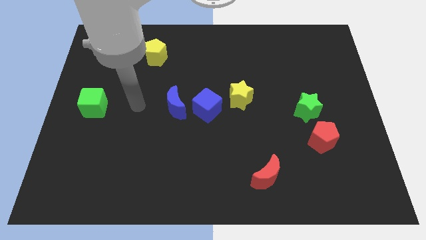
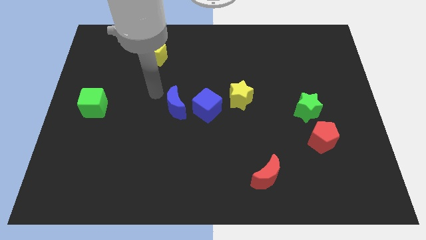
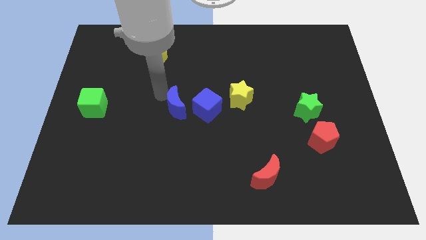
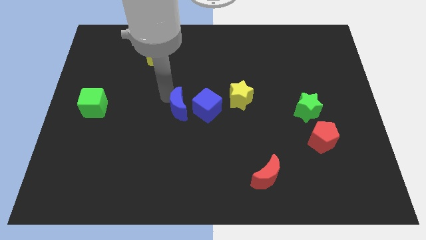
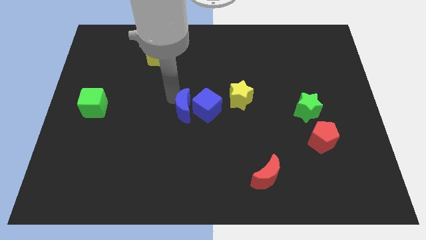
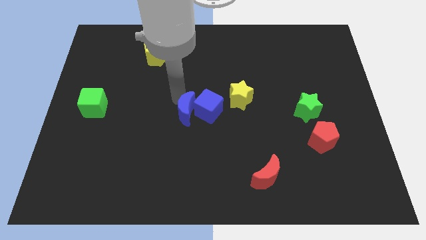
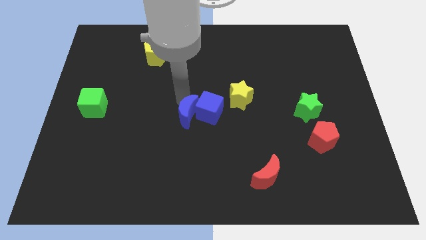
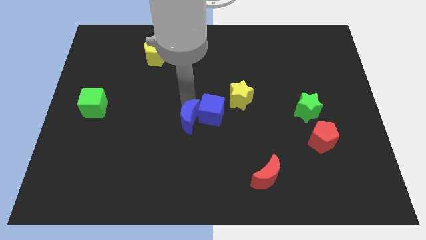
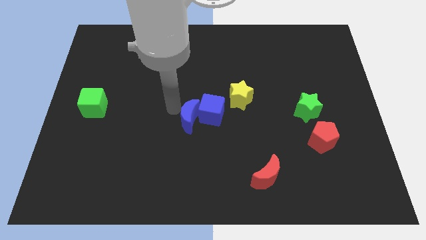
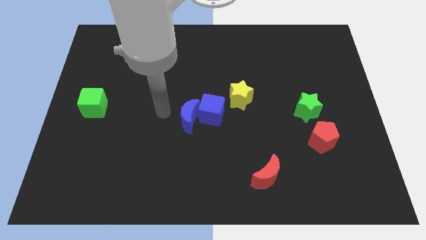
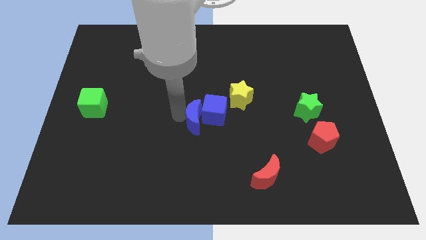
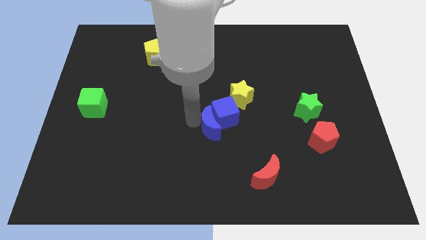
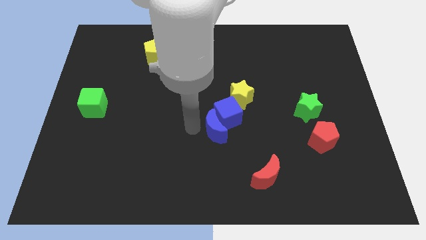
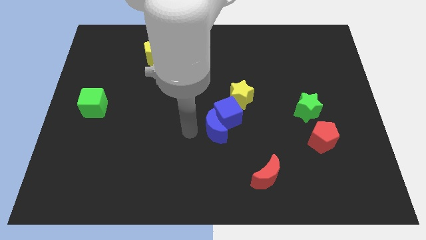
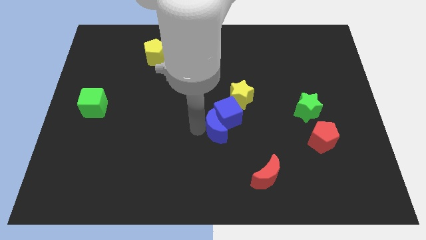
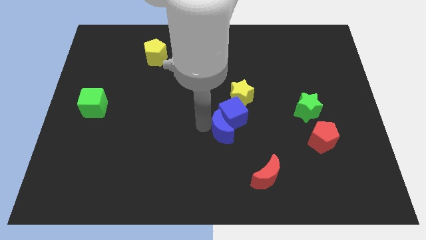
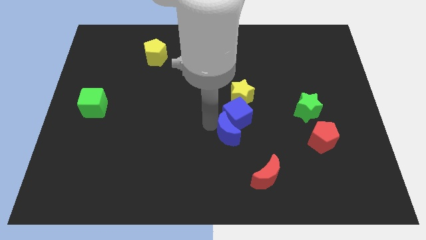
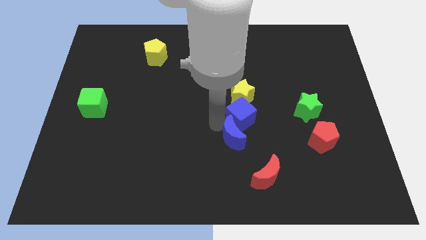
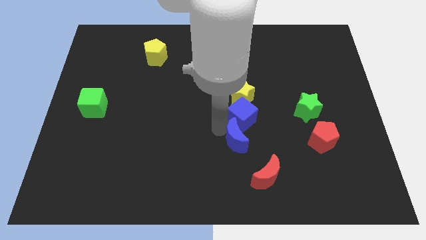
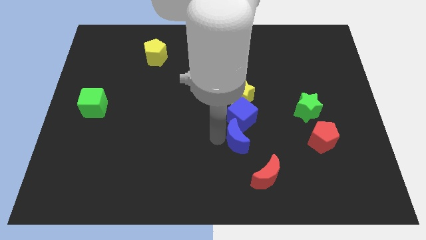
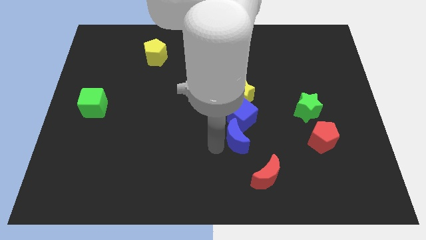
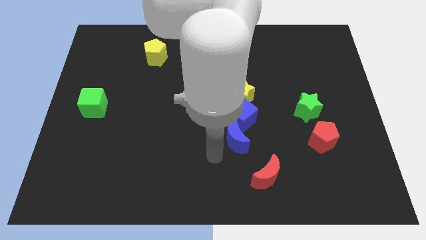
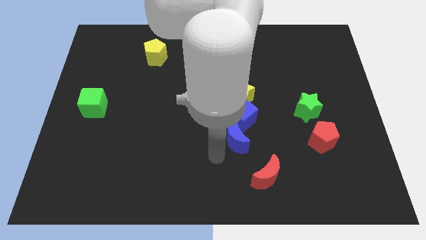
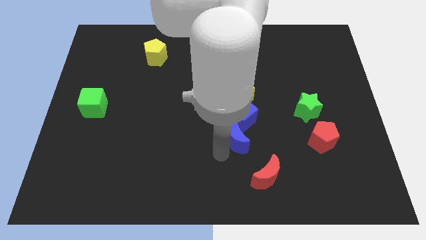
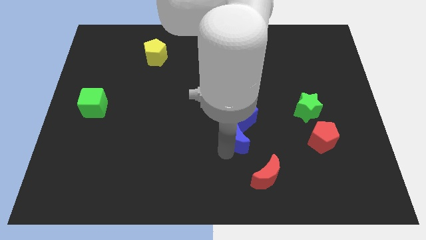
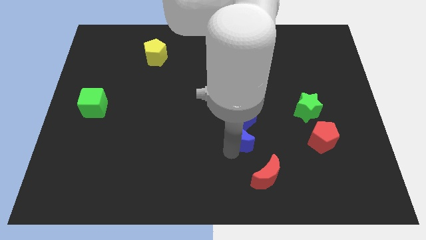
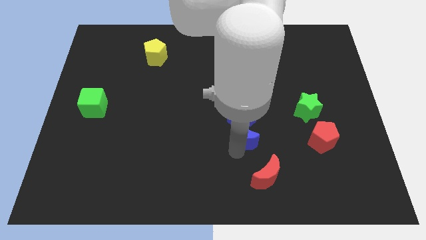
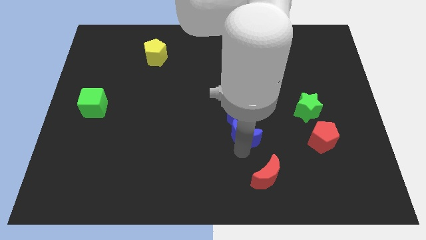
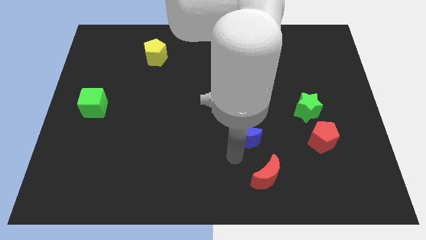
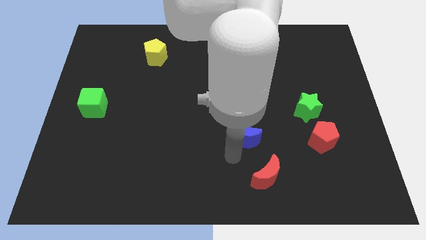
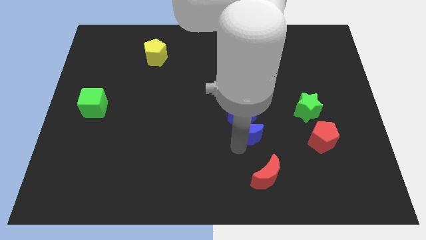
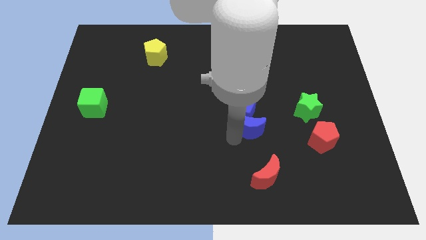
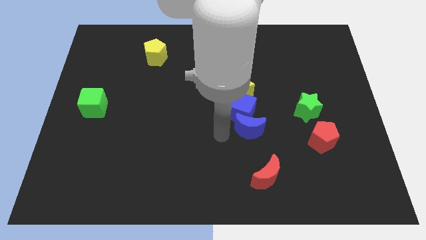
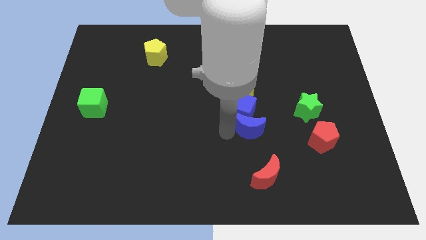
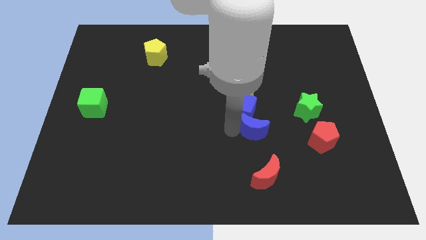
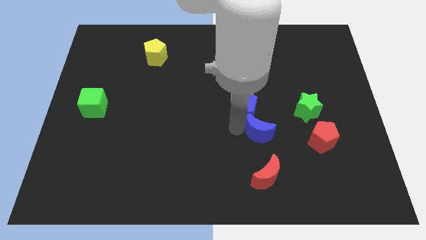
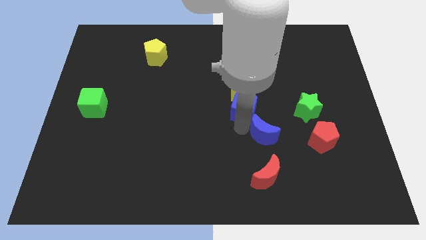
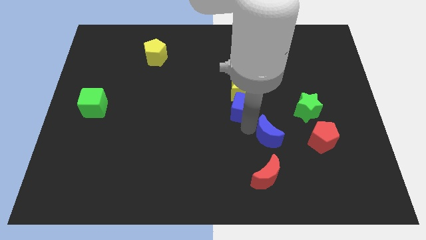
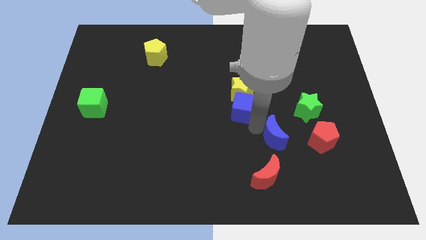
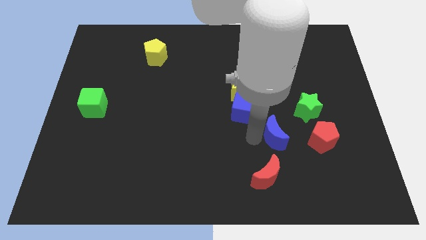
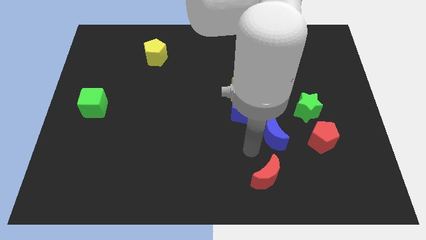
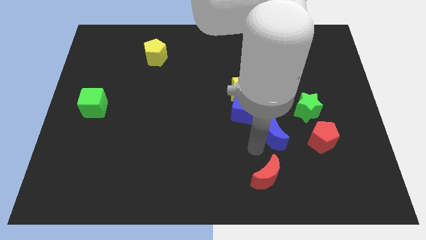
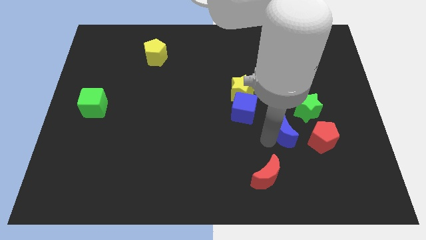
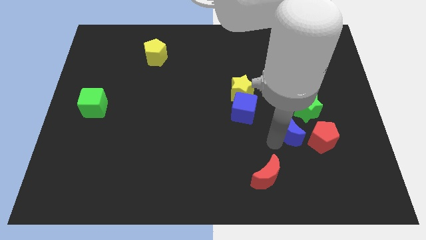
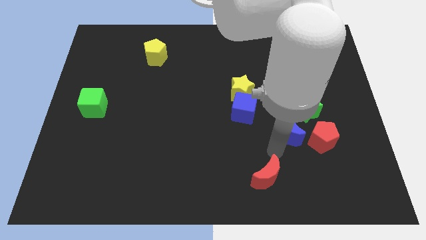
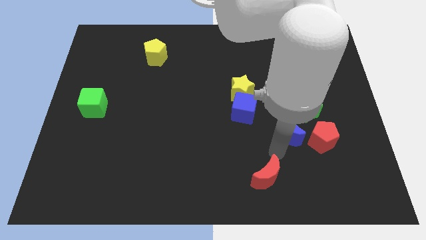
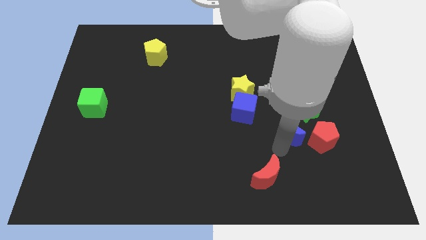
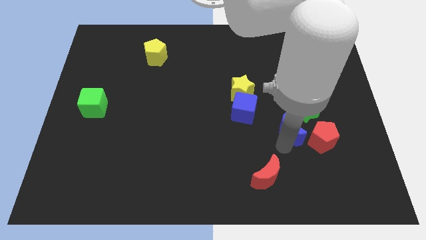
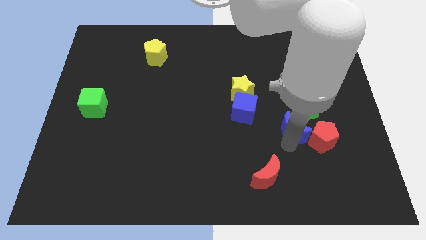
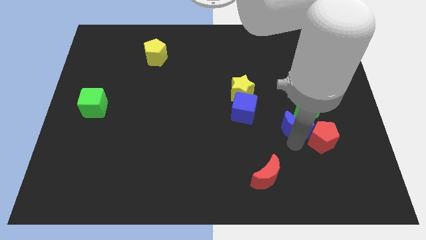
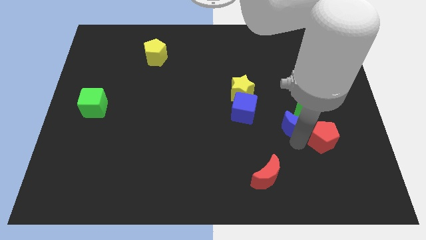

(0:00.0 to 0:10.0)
slide the blue moon next to the green star

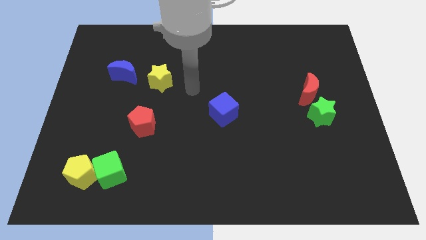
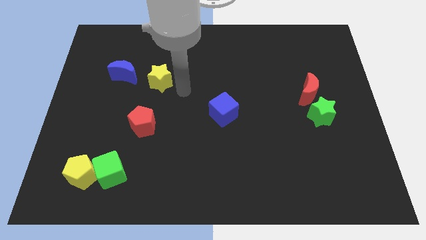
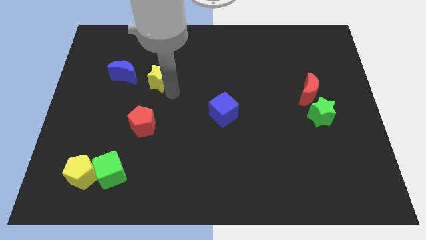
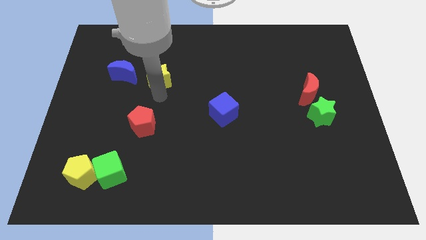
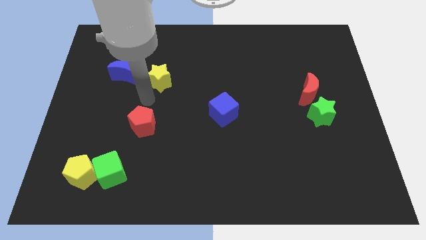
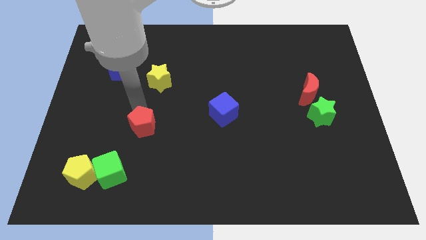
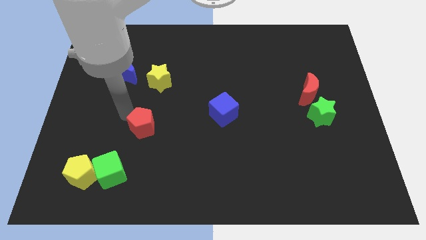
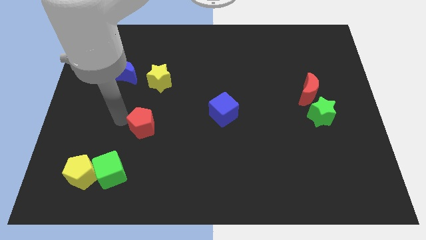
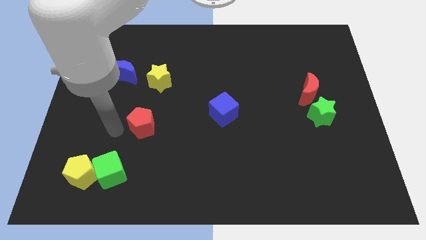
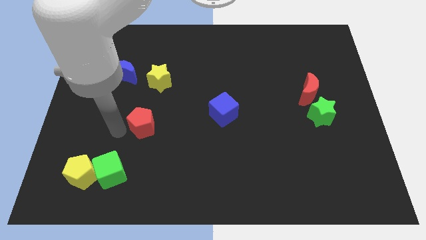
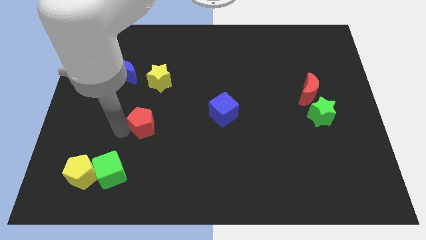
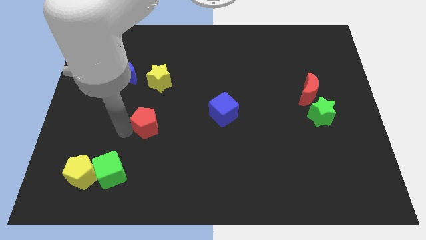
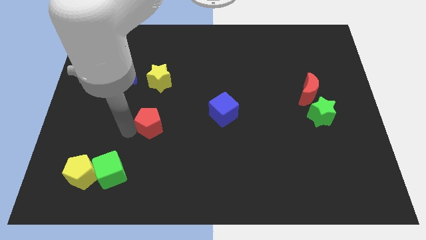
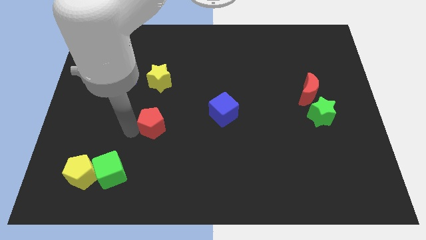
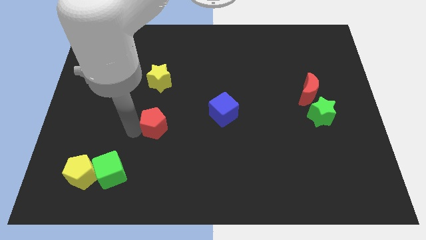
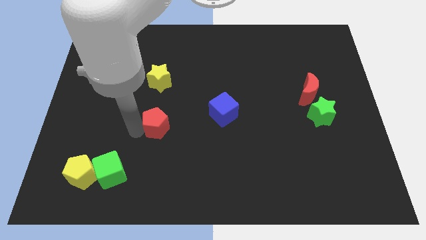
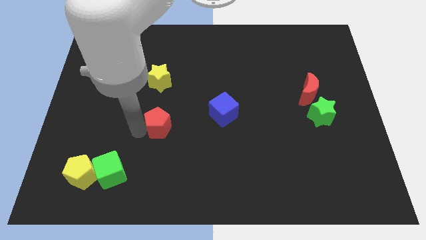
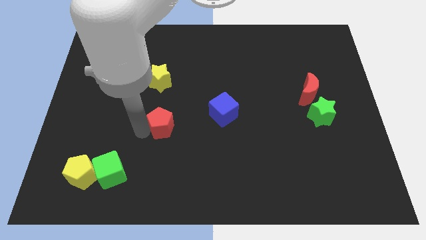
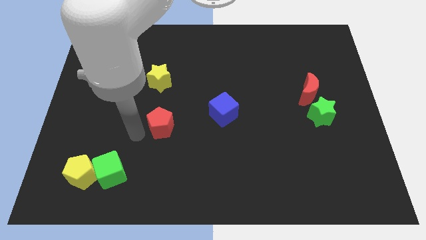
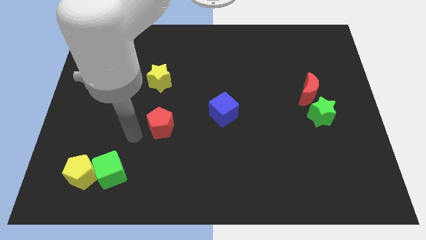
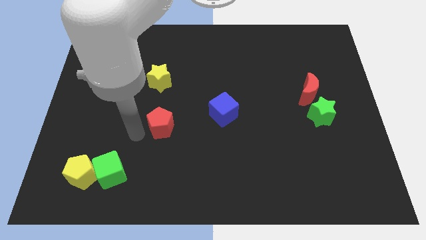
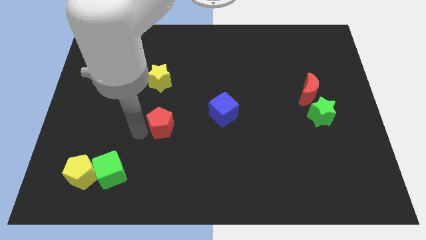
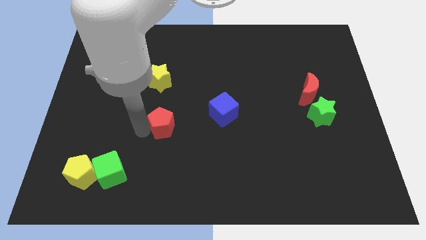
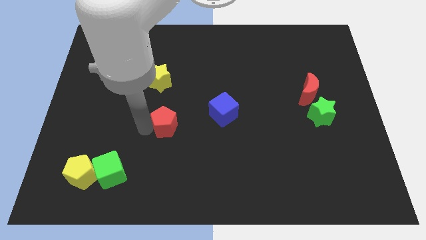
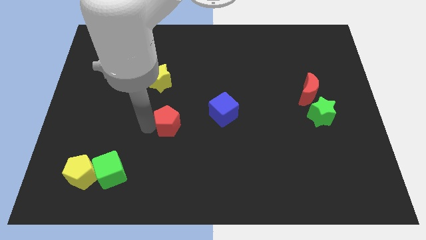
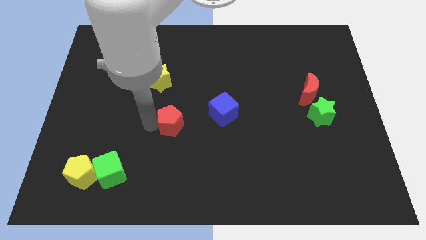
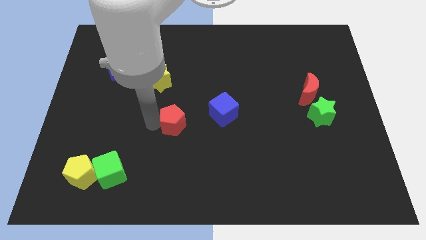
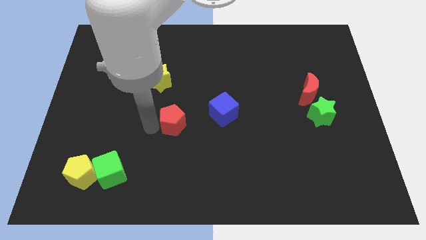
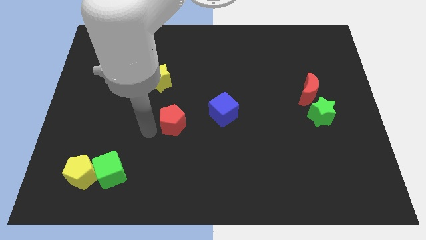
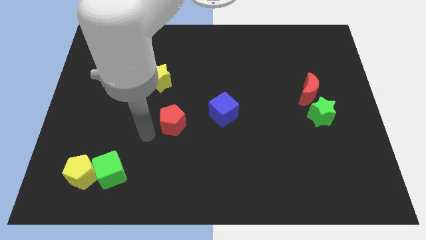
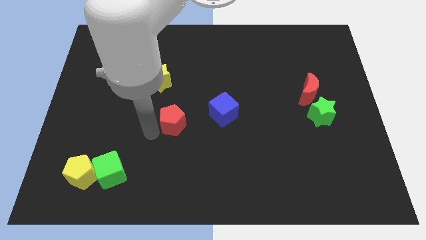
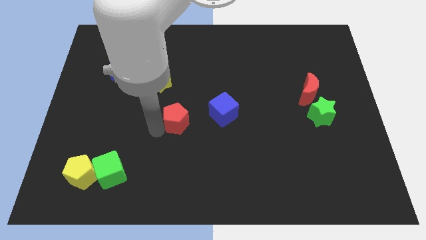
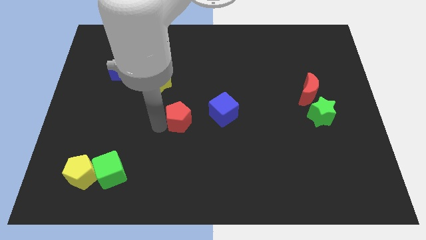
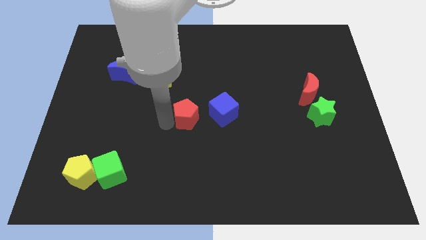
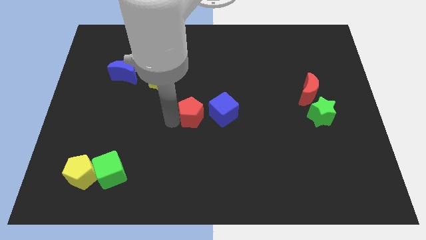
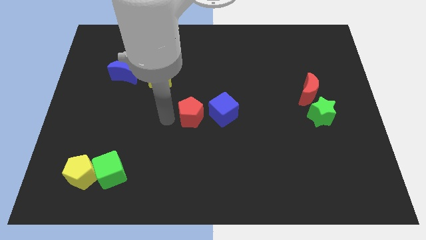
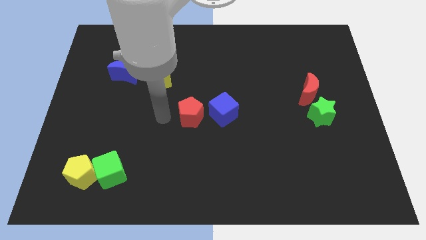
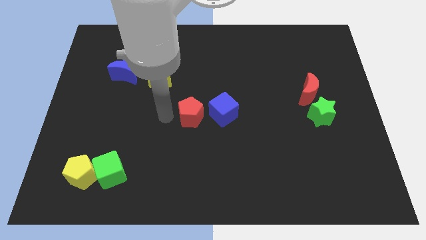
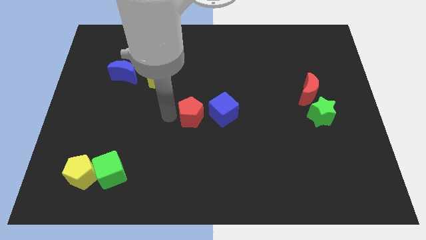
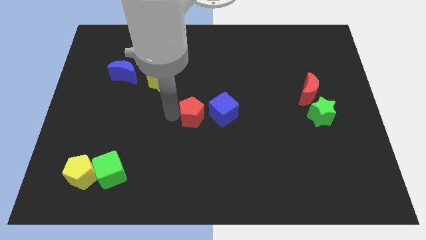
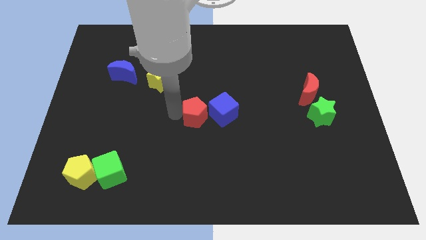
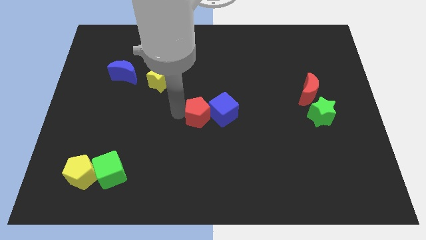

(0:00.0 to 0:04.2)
push the red pentagon next to the blue cube
